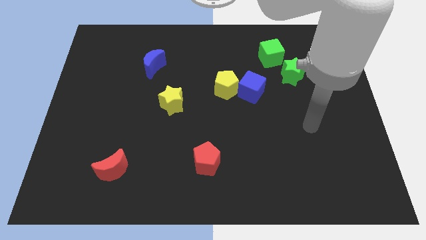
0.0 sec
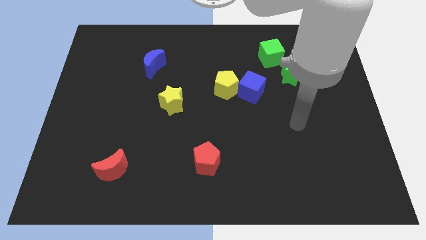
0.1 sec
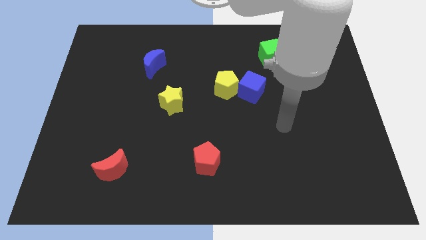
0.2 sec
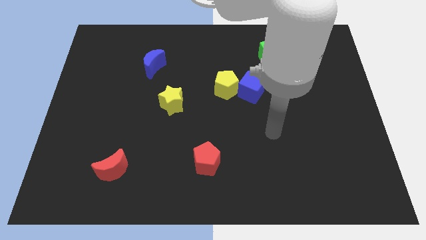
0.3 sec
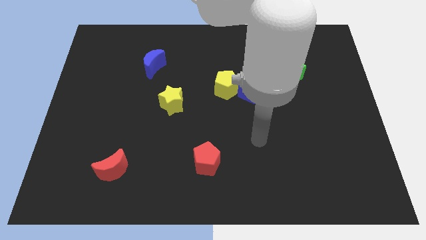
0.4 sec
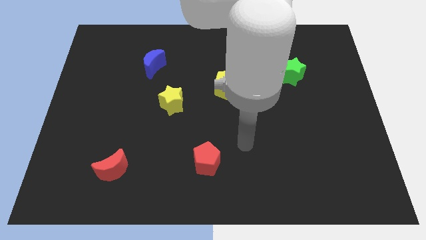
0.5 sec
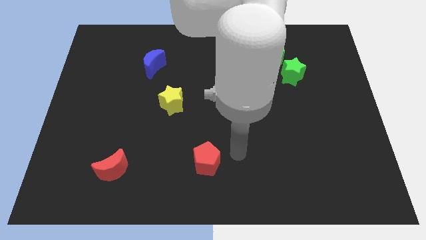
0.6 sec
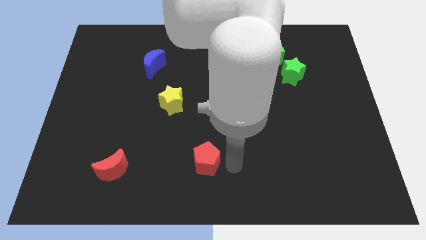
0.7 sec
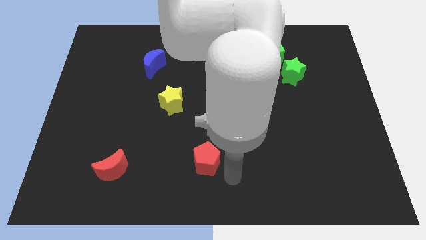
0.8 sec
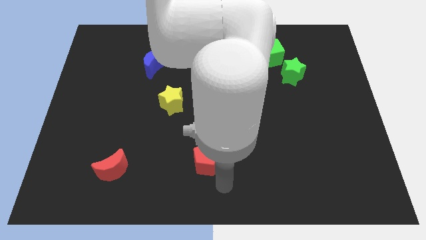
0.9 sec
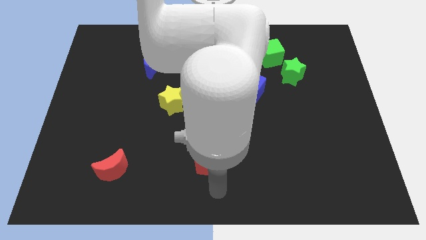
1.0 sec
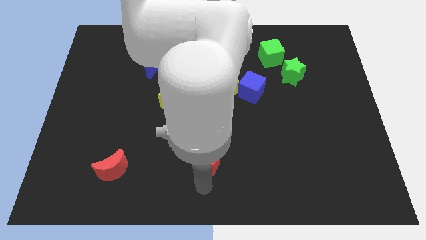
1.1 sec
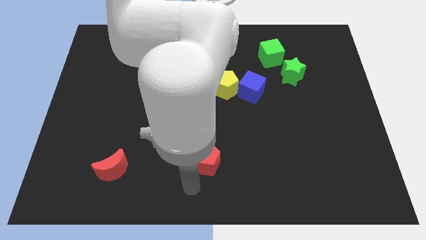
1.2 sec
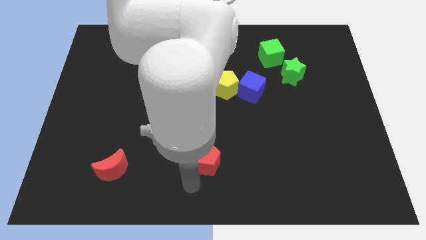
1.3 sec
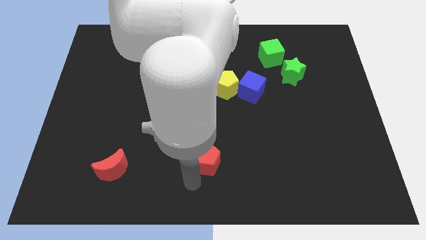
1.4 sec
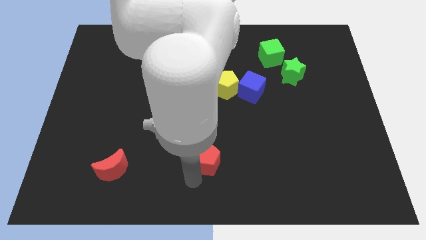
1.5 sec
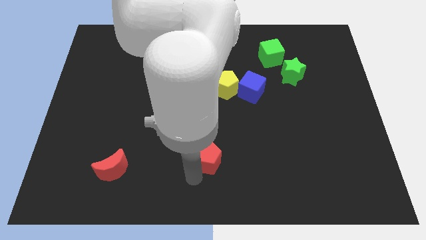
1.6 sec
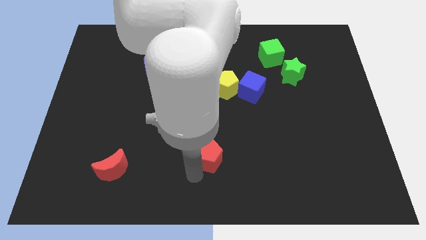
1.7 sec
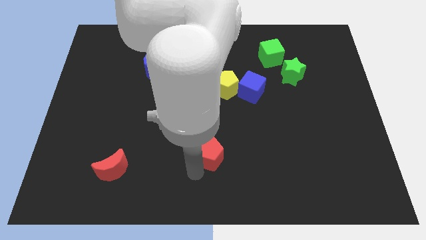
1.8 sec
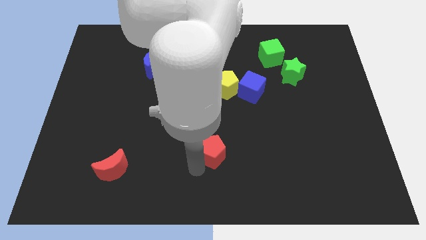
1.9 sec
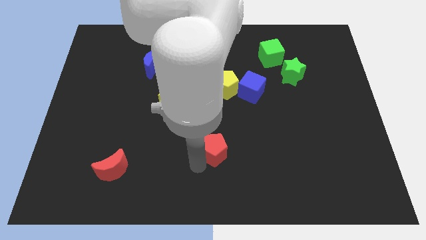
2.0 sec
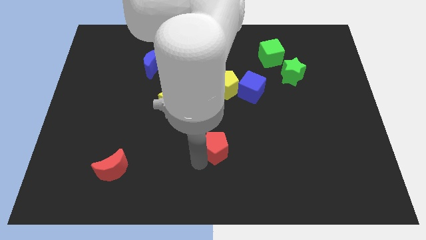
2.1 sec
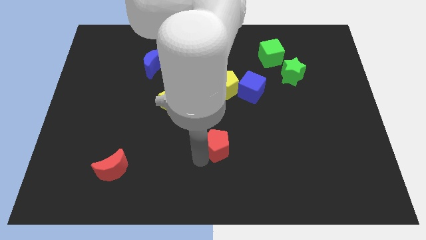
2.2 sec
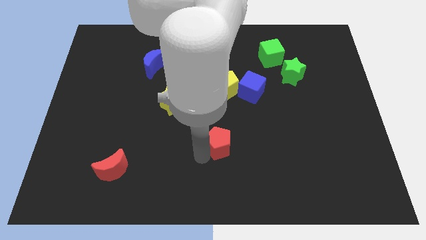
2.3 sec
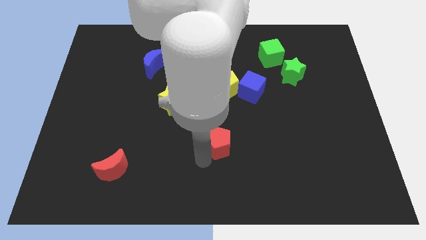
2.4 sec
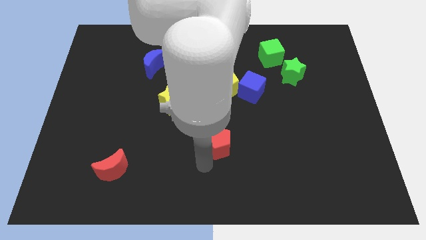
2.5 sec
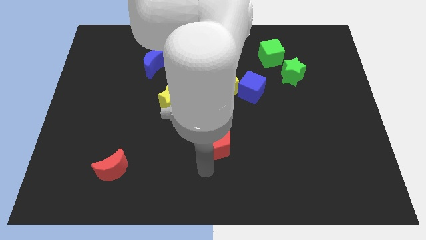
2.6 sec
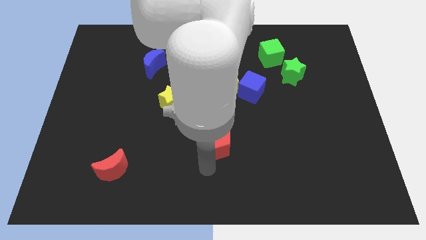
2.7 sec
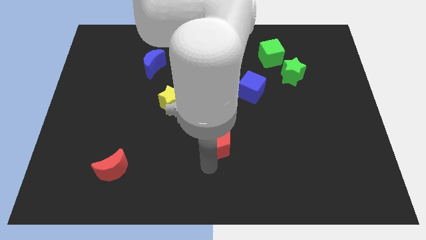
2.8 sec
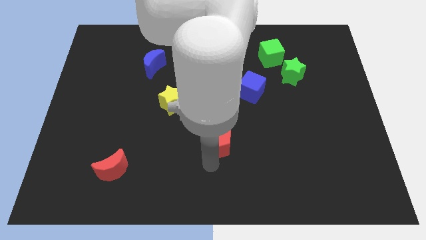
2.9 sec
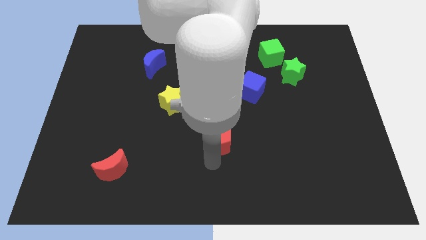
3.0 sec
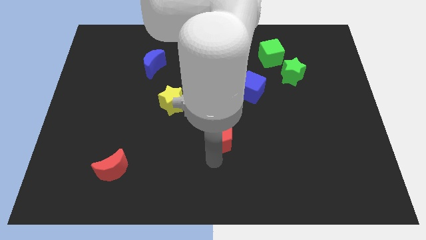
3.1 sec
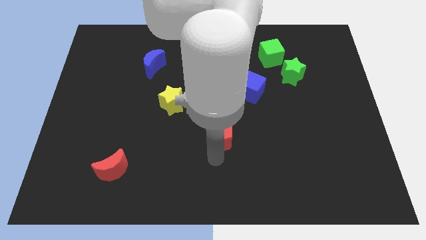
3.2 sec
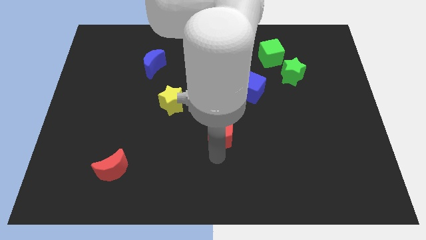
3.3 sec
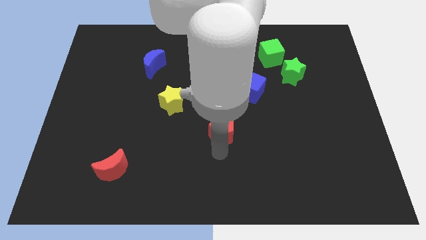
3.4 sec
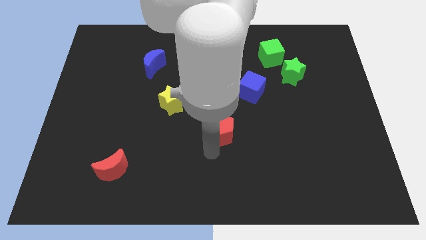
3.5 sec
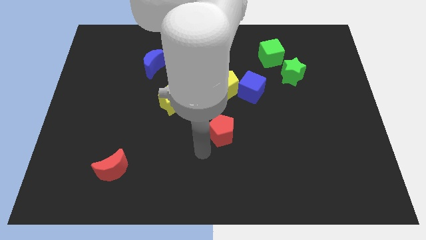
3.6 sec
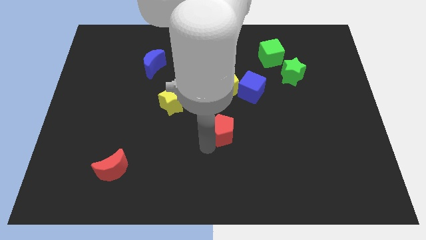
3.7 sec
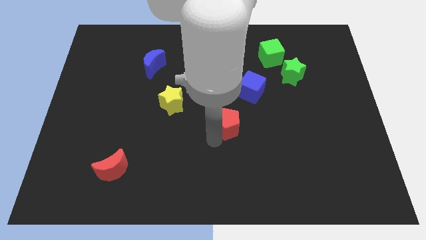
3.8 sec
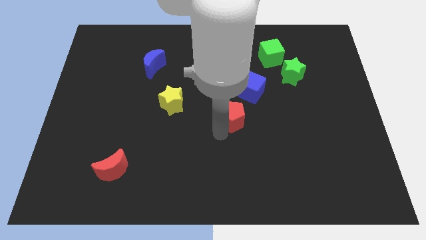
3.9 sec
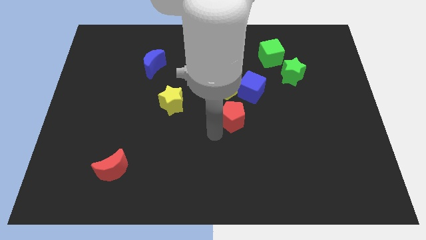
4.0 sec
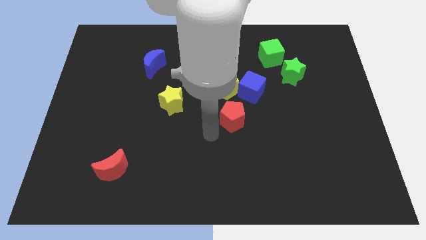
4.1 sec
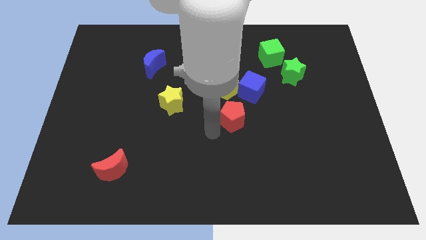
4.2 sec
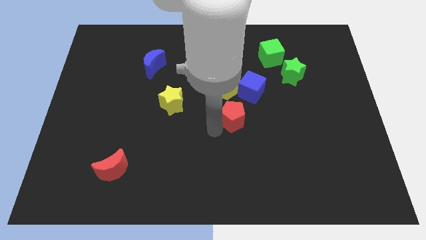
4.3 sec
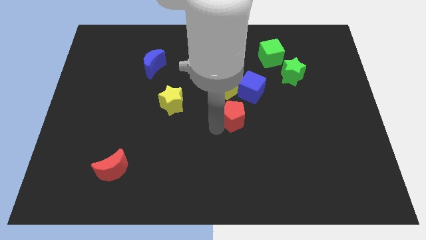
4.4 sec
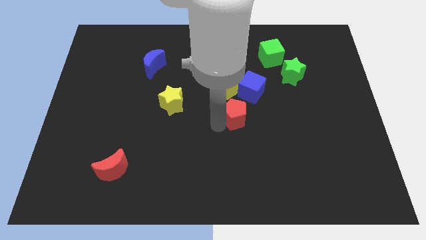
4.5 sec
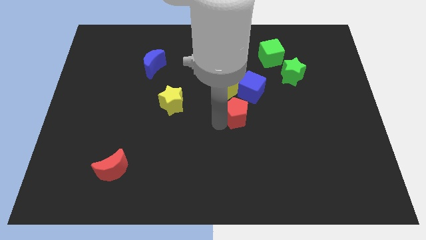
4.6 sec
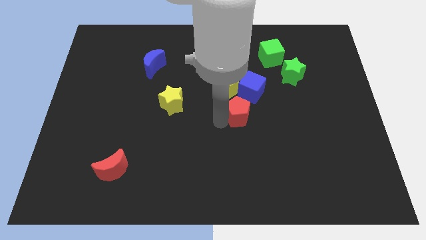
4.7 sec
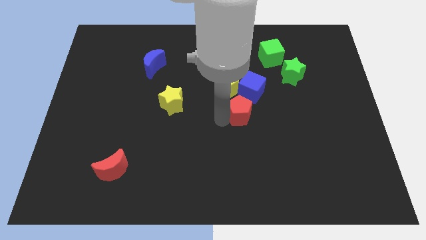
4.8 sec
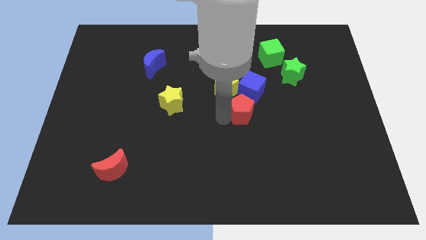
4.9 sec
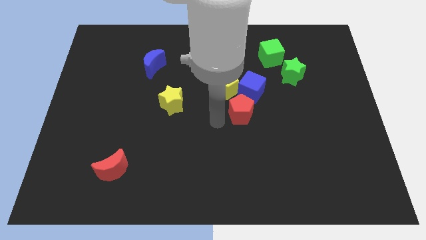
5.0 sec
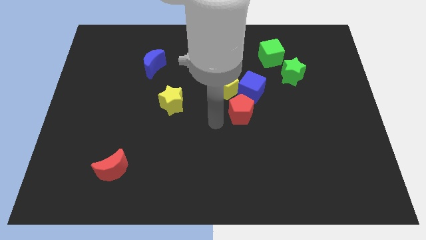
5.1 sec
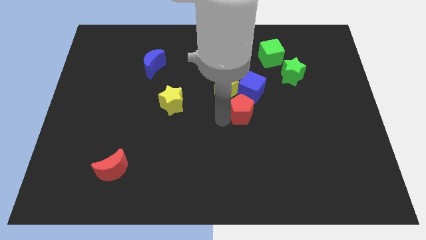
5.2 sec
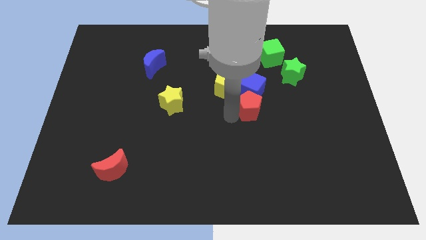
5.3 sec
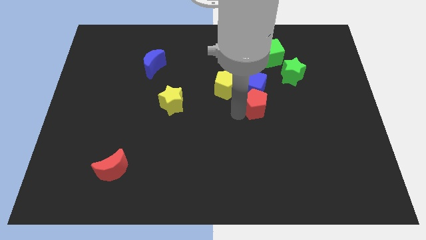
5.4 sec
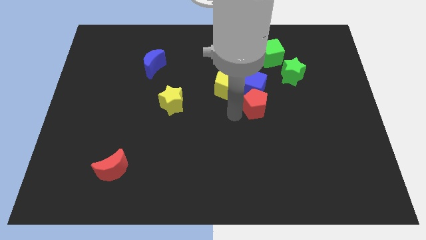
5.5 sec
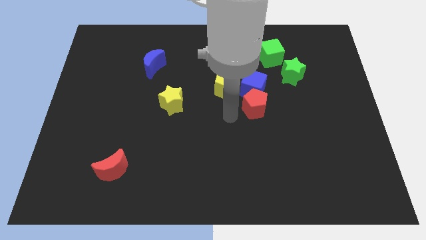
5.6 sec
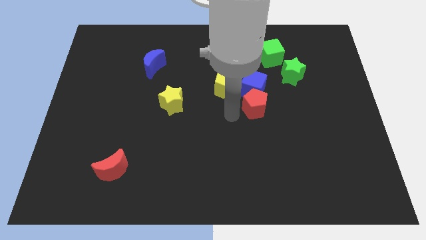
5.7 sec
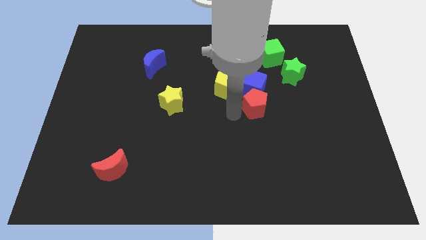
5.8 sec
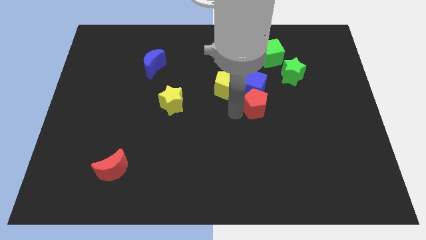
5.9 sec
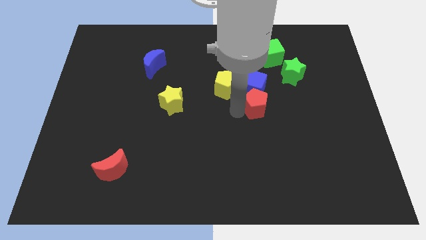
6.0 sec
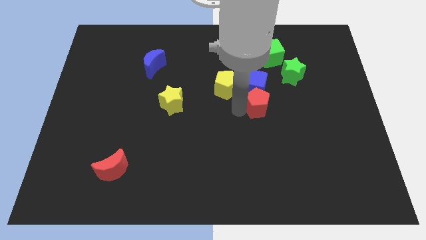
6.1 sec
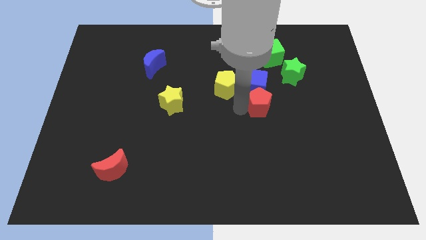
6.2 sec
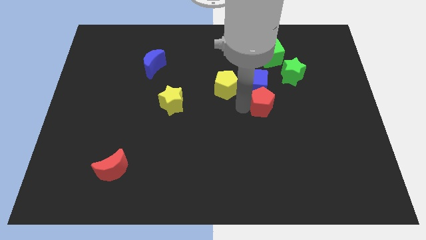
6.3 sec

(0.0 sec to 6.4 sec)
move the red pentagon diagonally down and to the left of the green star

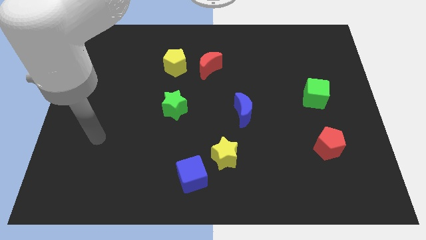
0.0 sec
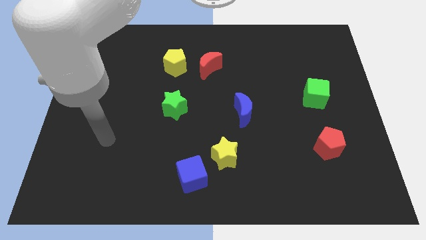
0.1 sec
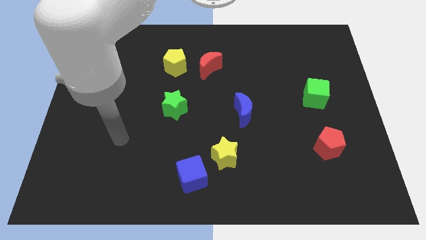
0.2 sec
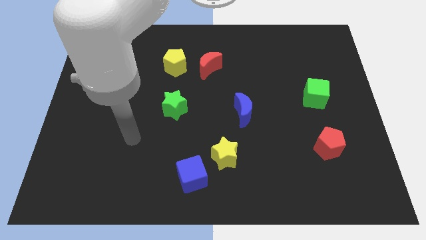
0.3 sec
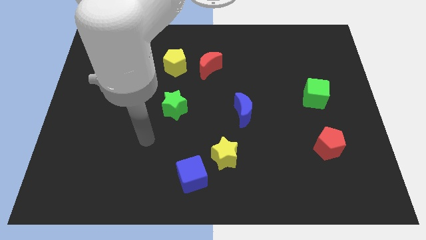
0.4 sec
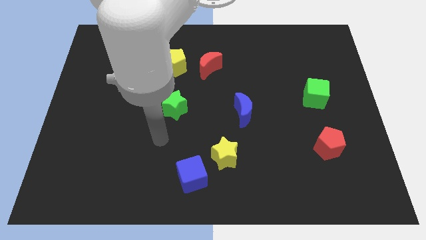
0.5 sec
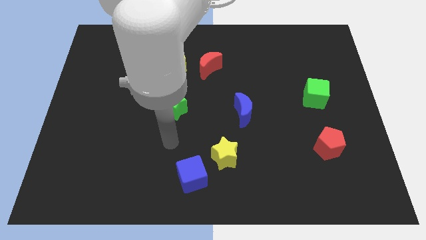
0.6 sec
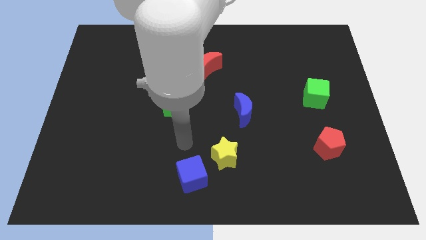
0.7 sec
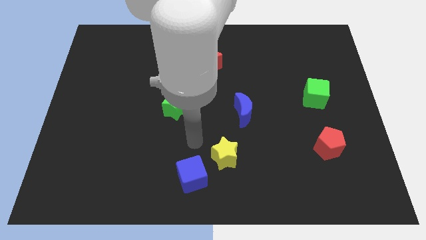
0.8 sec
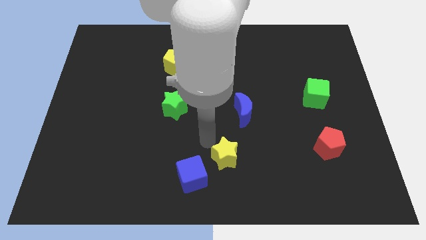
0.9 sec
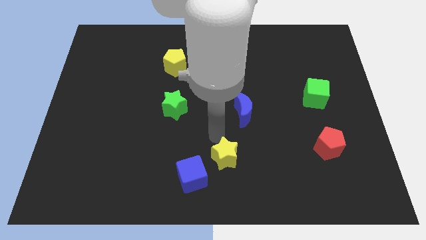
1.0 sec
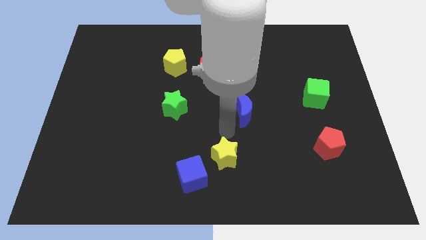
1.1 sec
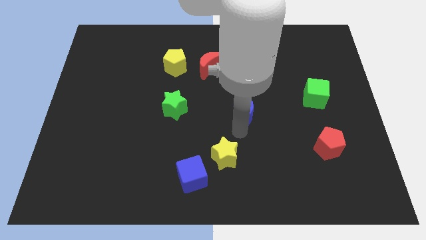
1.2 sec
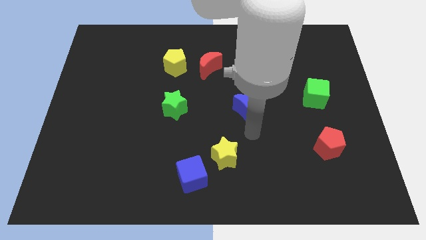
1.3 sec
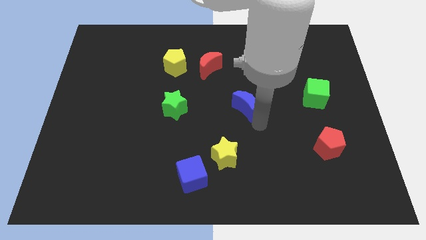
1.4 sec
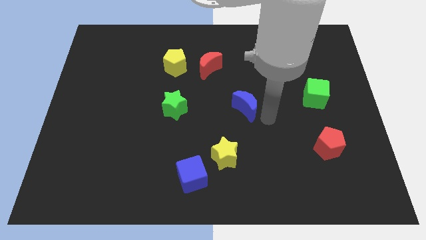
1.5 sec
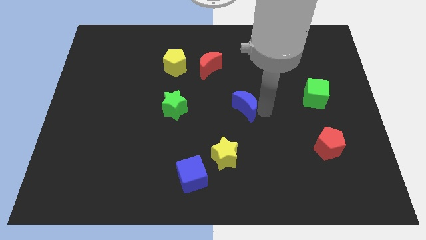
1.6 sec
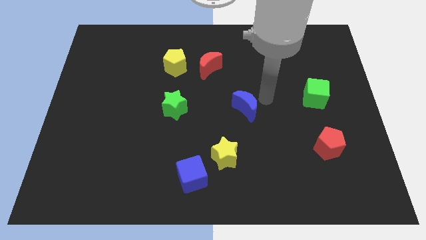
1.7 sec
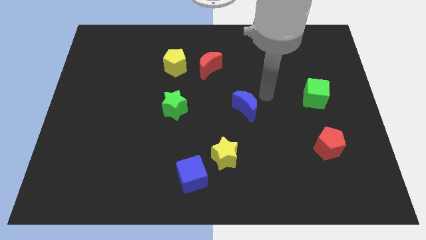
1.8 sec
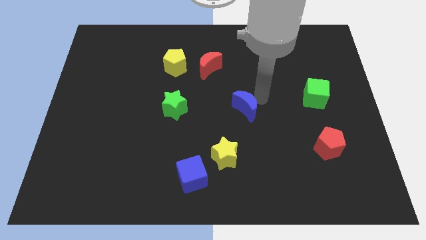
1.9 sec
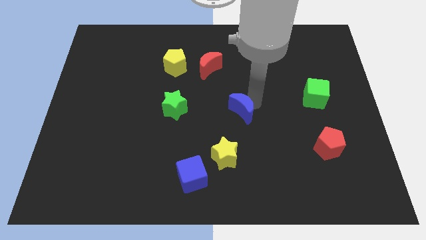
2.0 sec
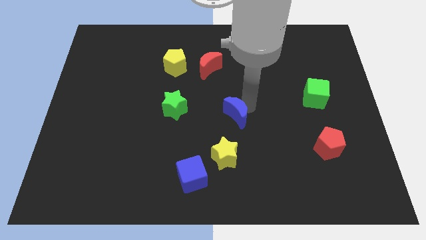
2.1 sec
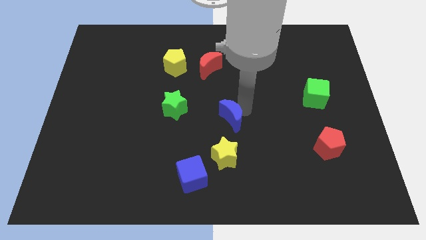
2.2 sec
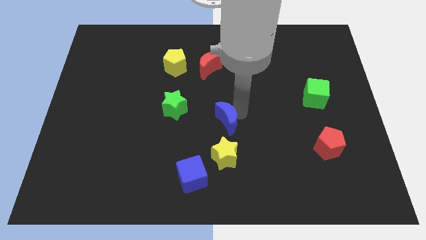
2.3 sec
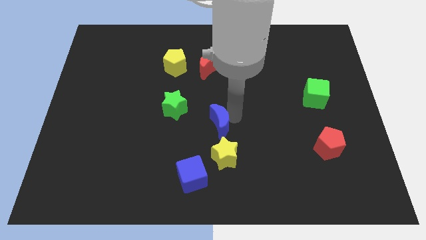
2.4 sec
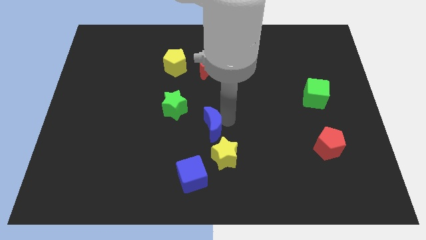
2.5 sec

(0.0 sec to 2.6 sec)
slide the blue moon to the top left of the yellow star
